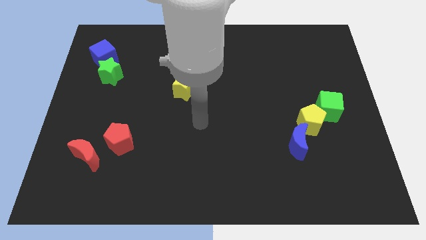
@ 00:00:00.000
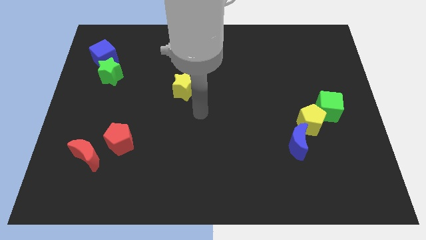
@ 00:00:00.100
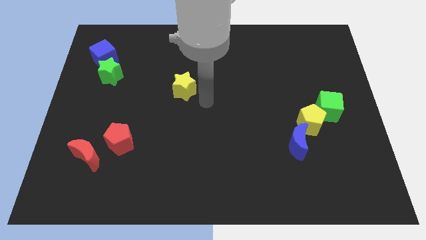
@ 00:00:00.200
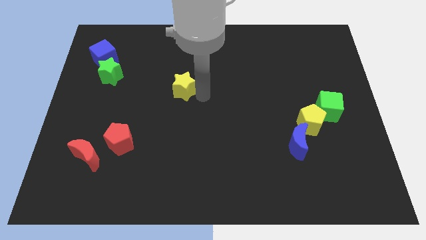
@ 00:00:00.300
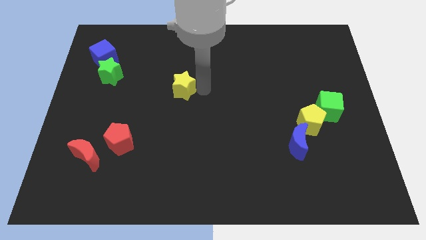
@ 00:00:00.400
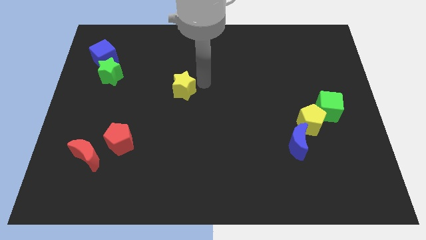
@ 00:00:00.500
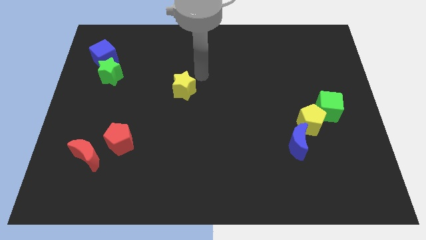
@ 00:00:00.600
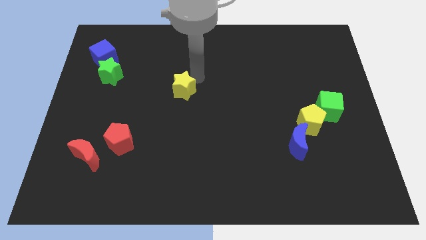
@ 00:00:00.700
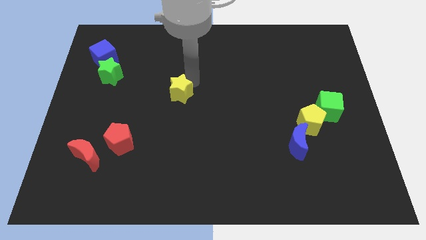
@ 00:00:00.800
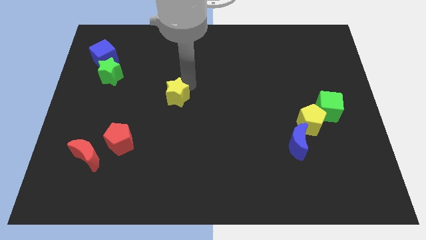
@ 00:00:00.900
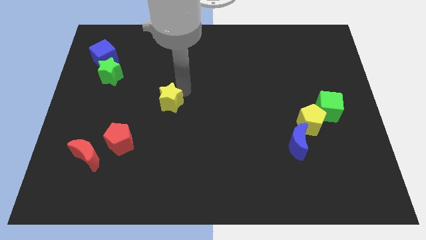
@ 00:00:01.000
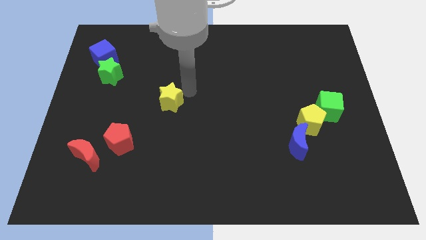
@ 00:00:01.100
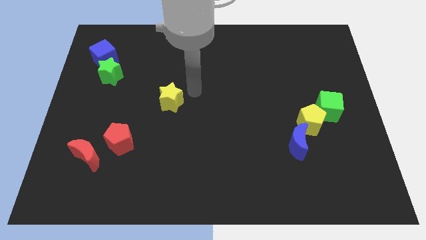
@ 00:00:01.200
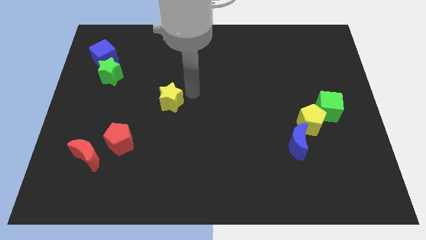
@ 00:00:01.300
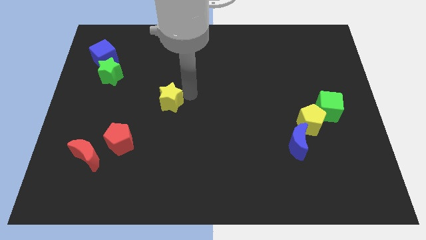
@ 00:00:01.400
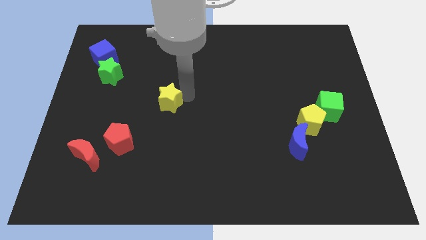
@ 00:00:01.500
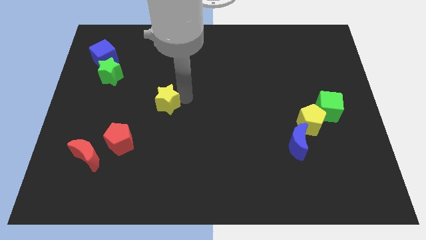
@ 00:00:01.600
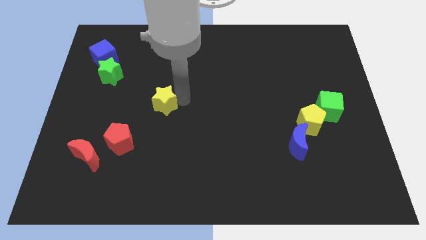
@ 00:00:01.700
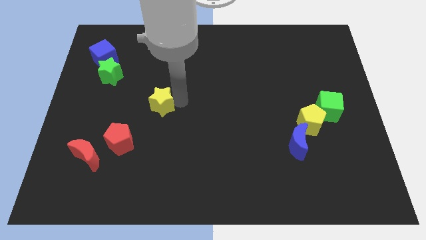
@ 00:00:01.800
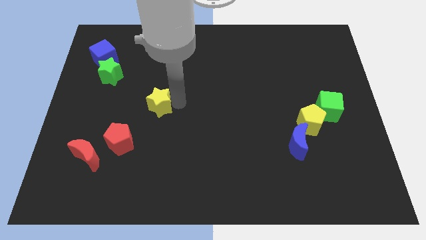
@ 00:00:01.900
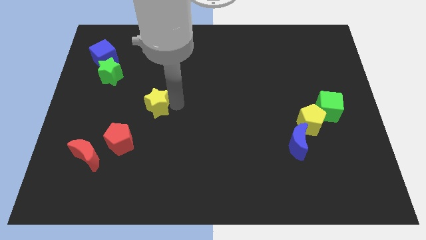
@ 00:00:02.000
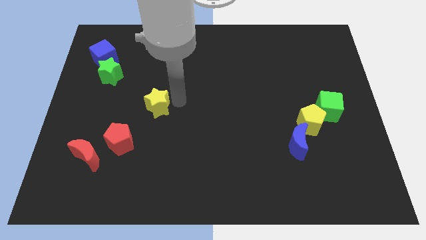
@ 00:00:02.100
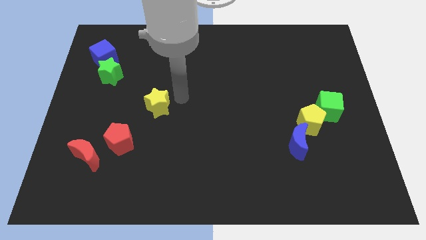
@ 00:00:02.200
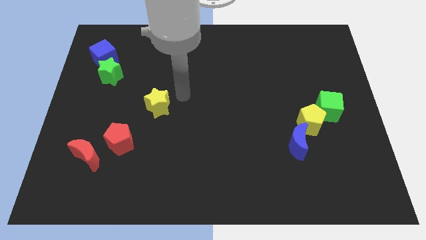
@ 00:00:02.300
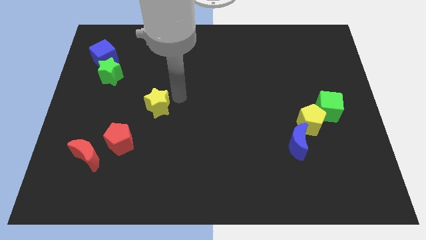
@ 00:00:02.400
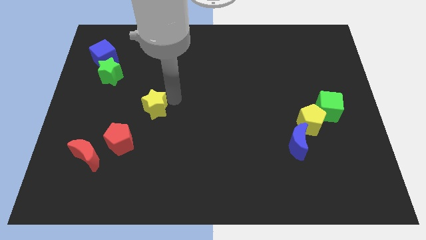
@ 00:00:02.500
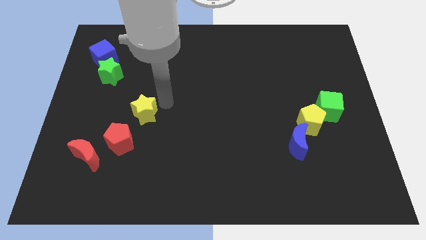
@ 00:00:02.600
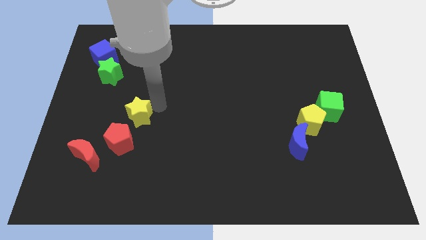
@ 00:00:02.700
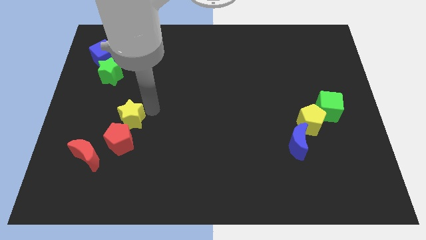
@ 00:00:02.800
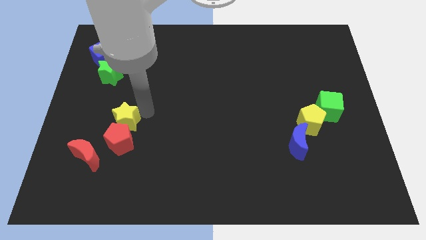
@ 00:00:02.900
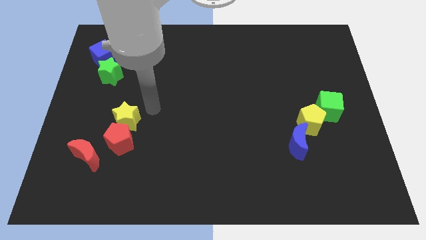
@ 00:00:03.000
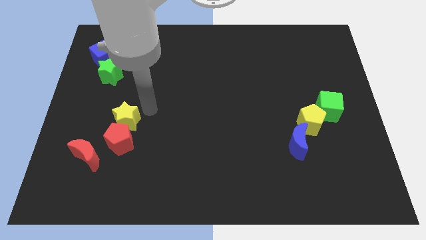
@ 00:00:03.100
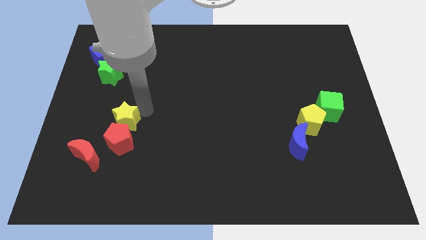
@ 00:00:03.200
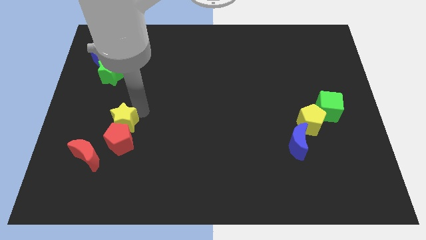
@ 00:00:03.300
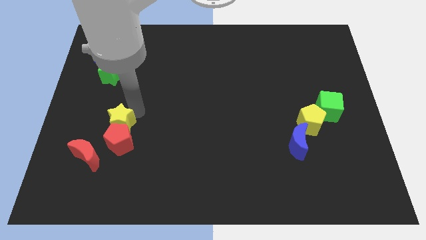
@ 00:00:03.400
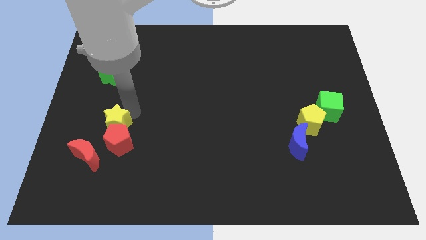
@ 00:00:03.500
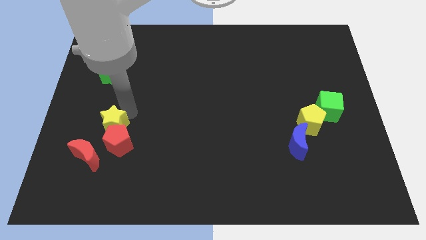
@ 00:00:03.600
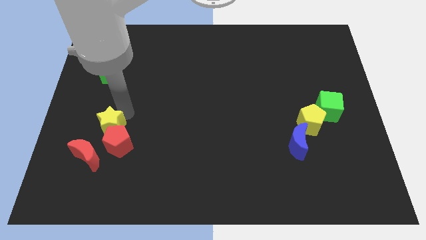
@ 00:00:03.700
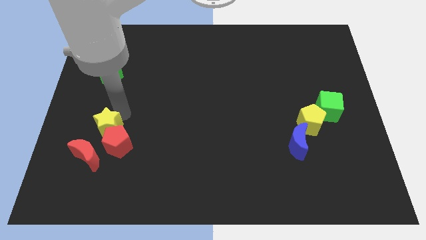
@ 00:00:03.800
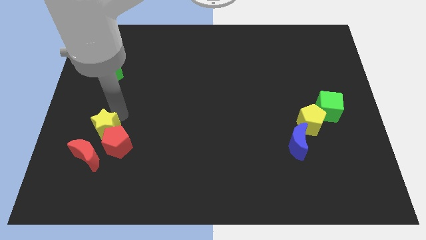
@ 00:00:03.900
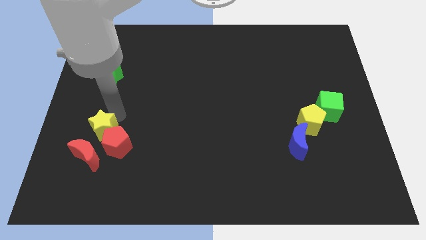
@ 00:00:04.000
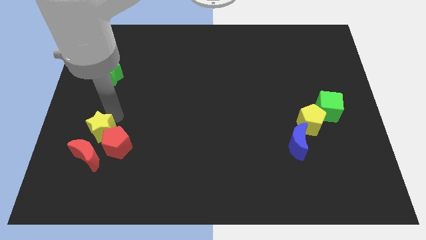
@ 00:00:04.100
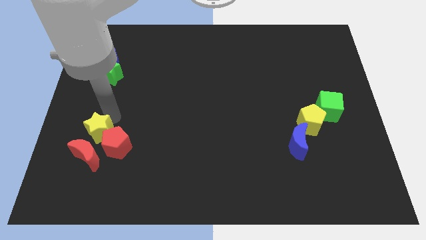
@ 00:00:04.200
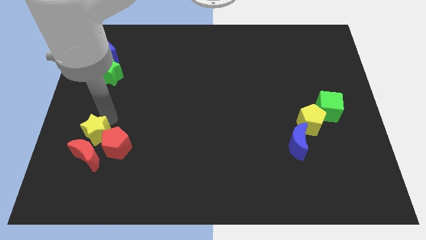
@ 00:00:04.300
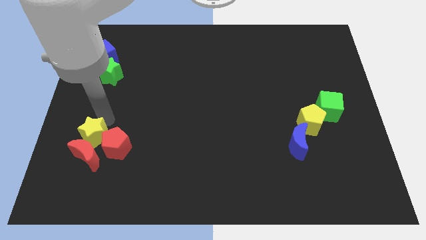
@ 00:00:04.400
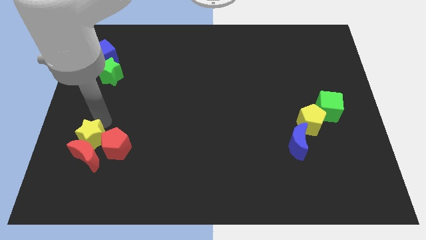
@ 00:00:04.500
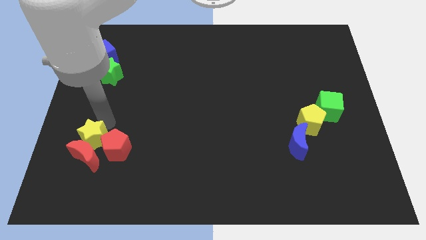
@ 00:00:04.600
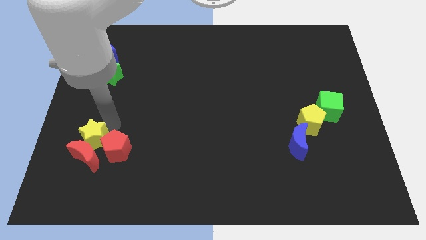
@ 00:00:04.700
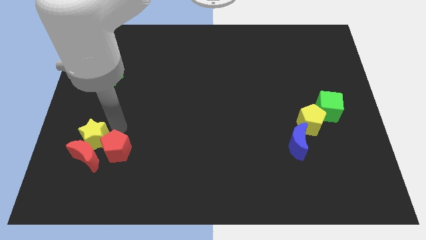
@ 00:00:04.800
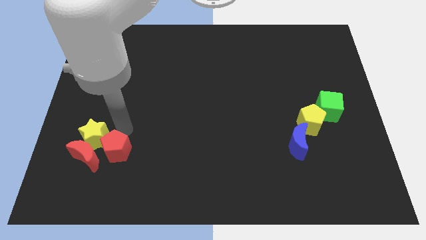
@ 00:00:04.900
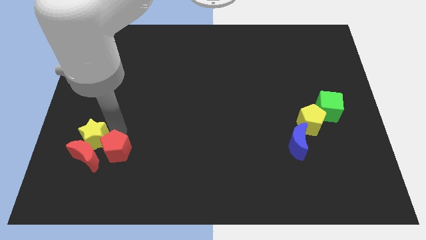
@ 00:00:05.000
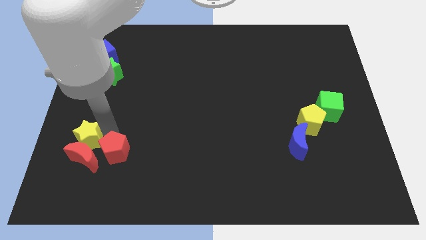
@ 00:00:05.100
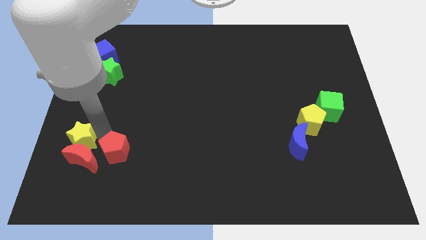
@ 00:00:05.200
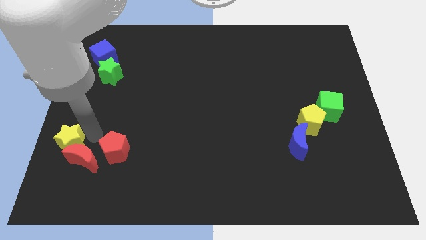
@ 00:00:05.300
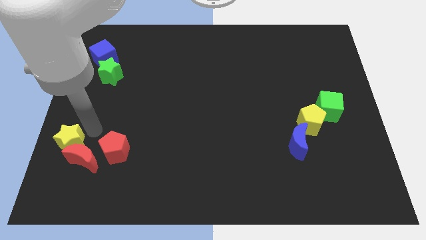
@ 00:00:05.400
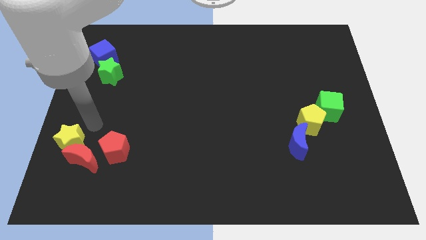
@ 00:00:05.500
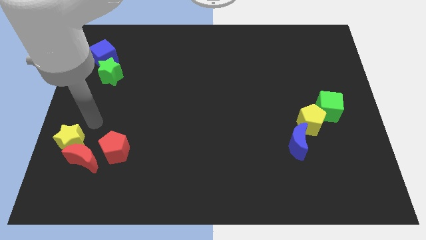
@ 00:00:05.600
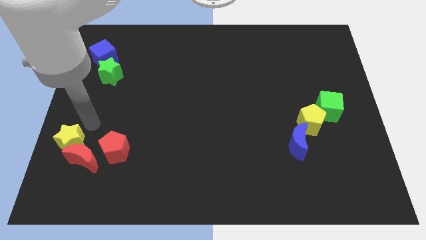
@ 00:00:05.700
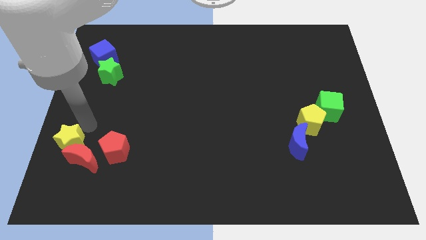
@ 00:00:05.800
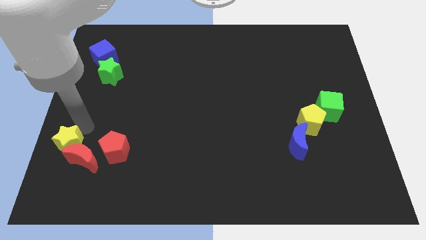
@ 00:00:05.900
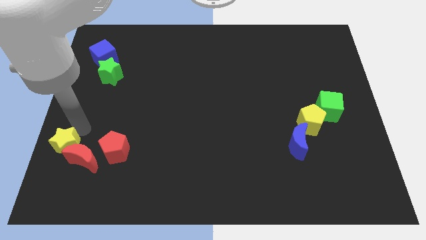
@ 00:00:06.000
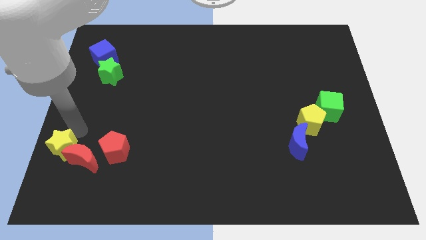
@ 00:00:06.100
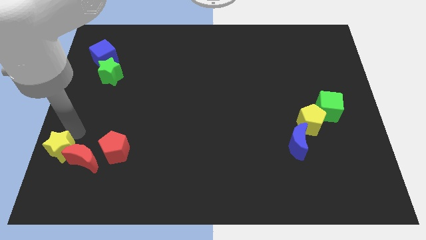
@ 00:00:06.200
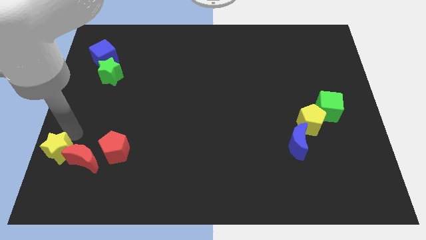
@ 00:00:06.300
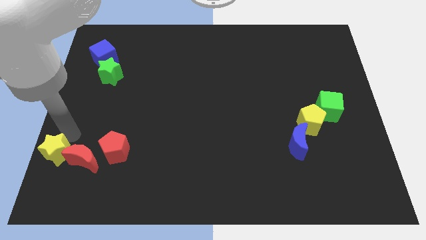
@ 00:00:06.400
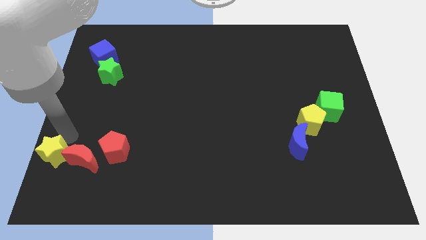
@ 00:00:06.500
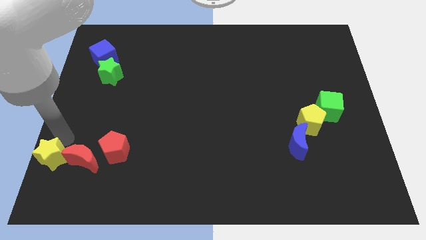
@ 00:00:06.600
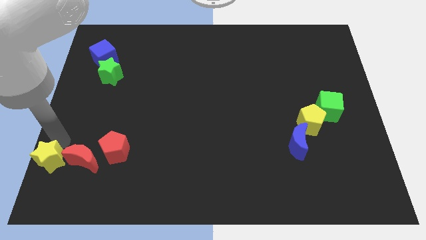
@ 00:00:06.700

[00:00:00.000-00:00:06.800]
move the yellow star to the lower left corner
